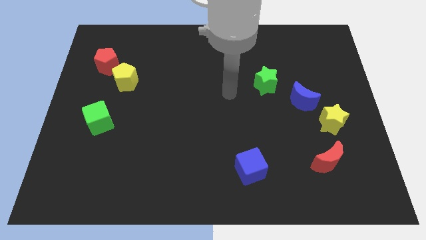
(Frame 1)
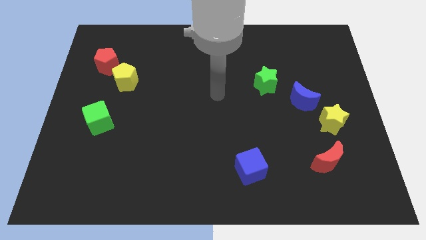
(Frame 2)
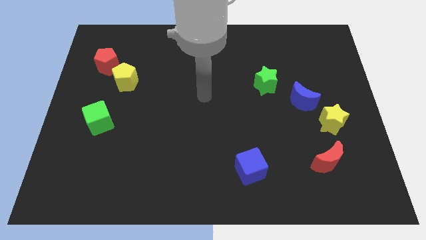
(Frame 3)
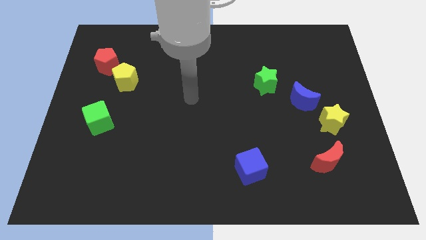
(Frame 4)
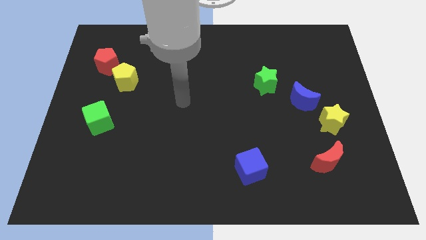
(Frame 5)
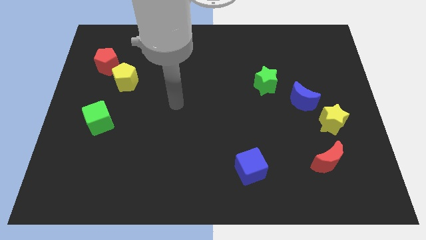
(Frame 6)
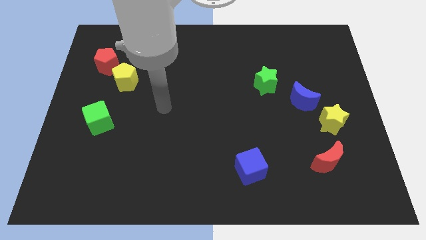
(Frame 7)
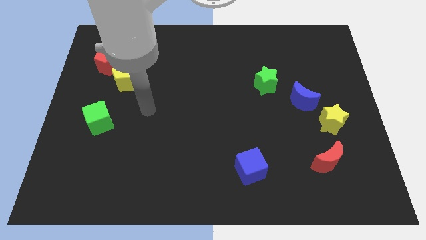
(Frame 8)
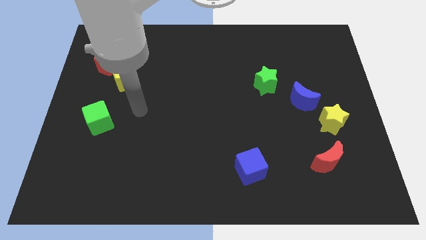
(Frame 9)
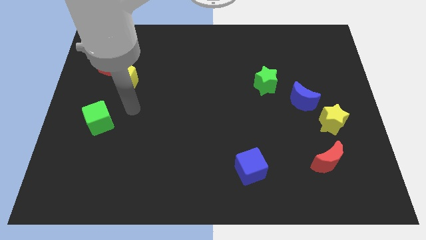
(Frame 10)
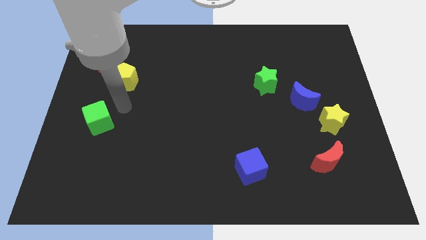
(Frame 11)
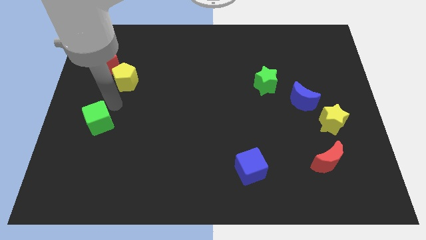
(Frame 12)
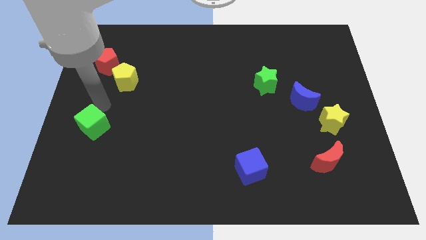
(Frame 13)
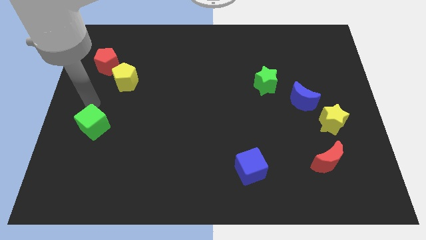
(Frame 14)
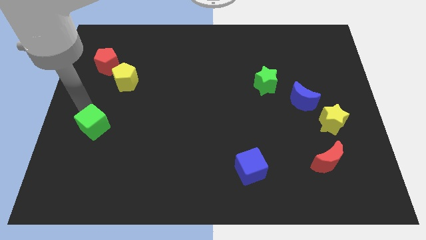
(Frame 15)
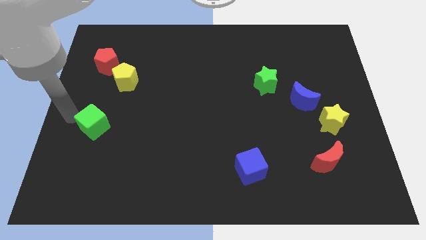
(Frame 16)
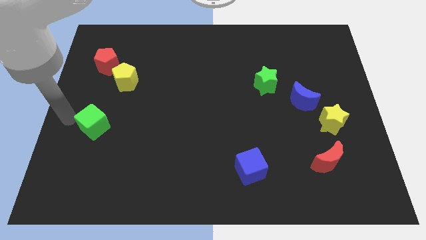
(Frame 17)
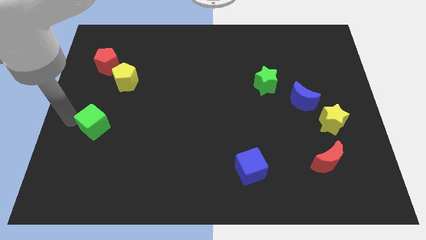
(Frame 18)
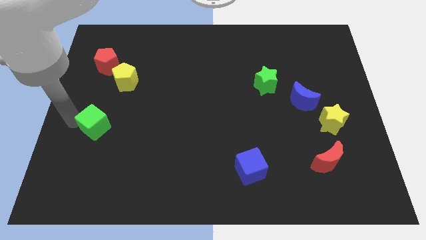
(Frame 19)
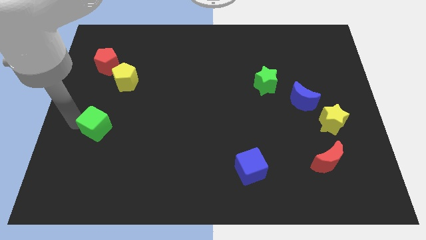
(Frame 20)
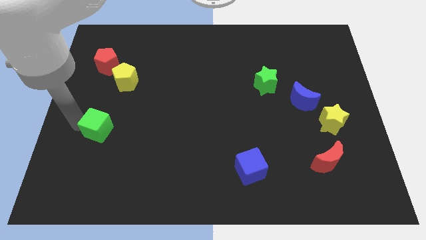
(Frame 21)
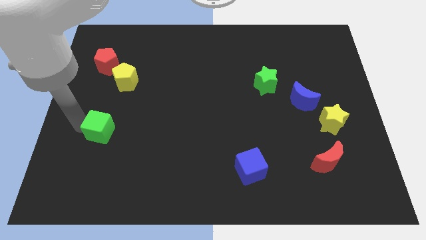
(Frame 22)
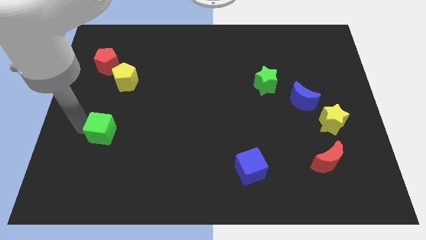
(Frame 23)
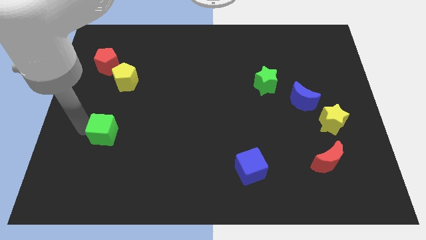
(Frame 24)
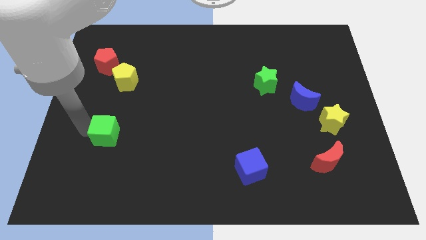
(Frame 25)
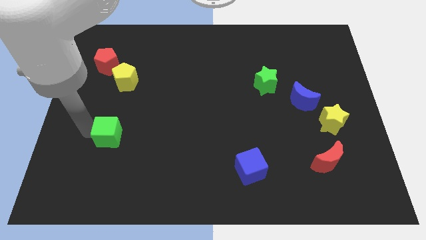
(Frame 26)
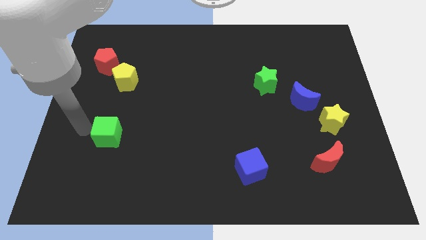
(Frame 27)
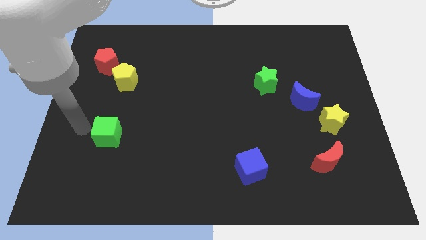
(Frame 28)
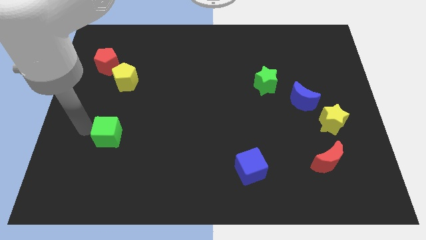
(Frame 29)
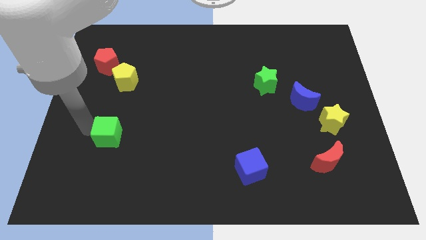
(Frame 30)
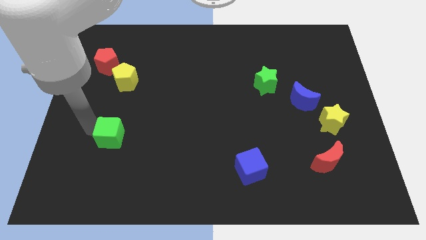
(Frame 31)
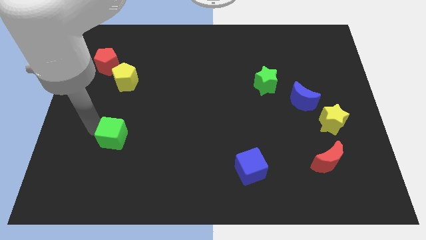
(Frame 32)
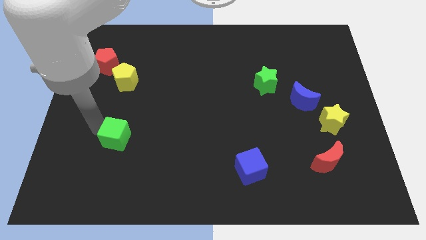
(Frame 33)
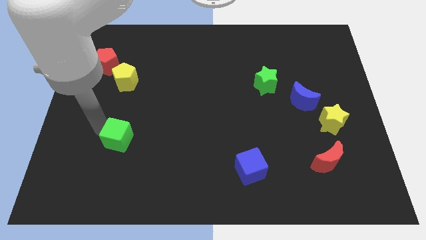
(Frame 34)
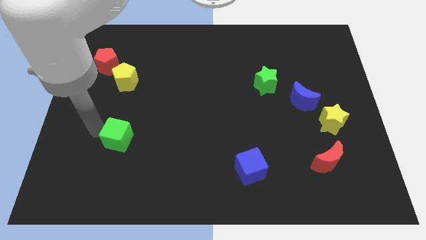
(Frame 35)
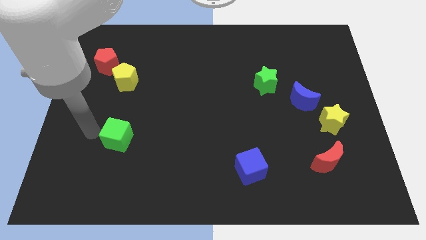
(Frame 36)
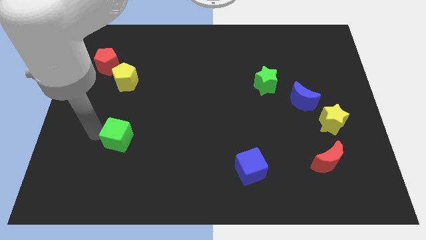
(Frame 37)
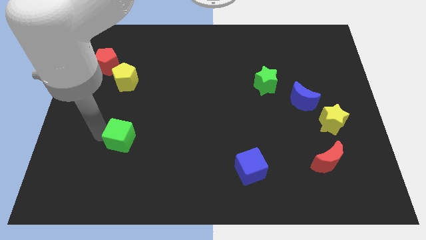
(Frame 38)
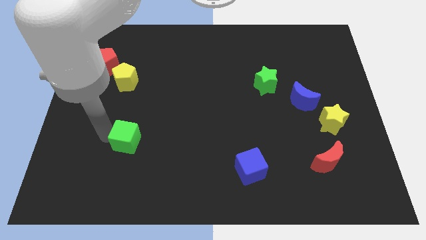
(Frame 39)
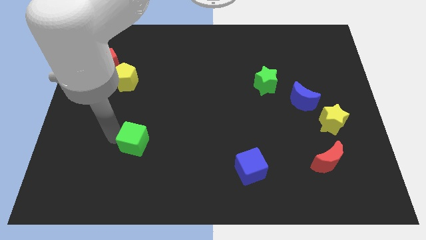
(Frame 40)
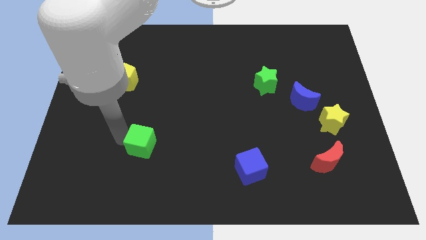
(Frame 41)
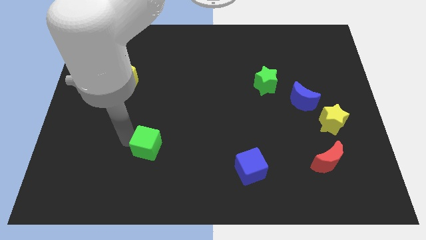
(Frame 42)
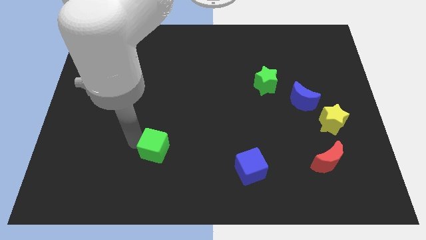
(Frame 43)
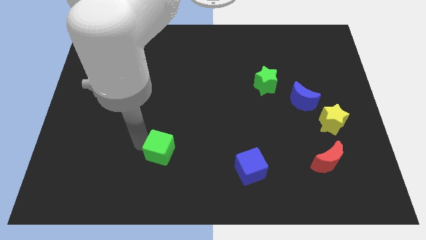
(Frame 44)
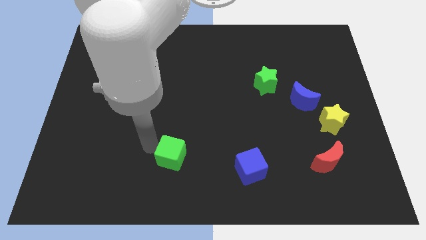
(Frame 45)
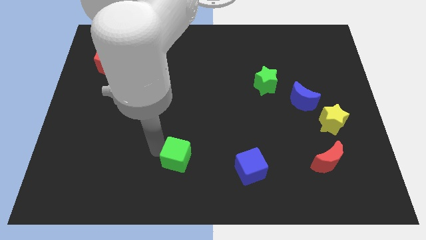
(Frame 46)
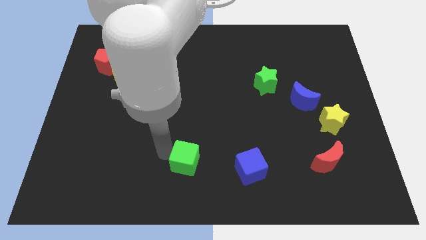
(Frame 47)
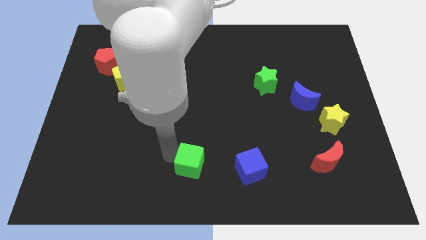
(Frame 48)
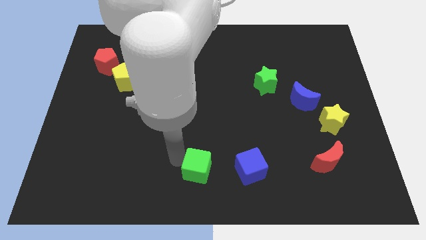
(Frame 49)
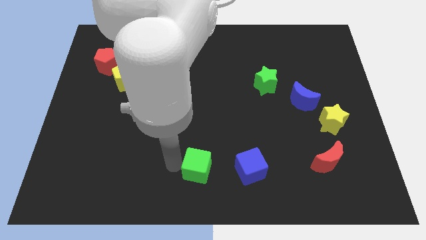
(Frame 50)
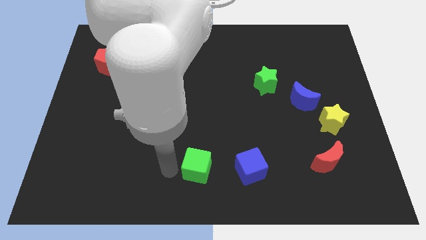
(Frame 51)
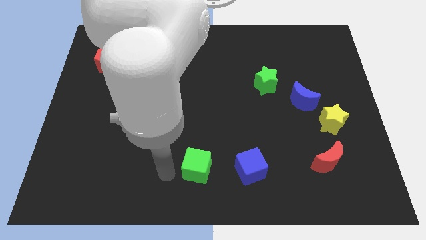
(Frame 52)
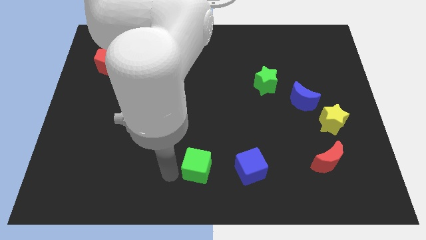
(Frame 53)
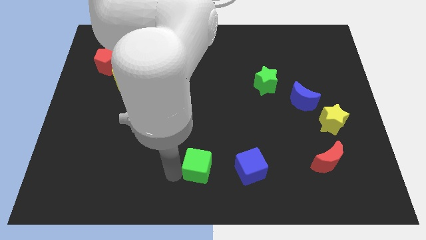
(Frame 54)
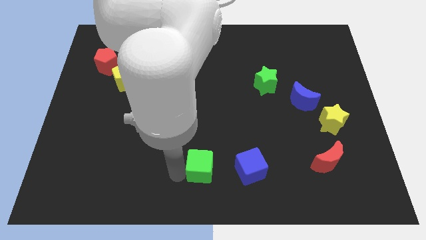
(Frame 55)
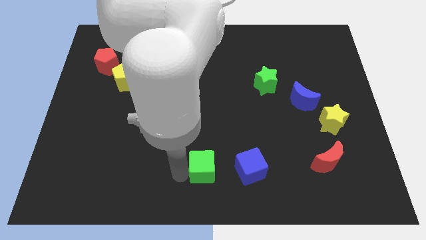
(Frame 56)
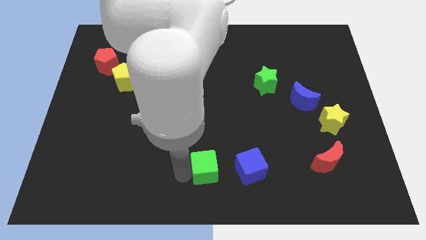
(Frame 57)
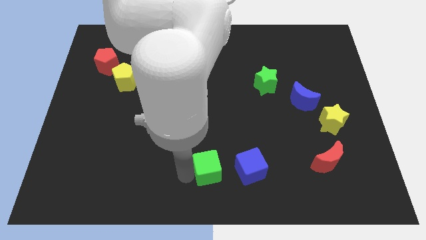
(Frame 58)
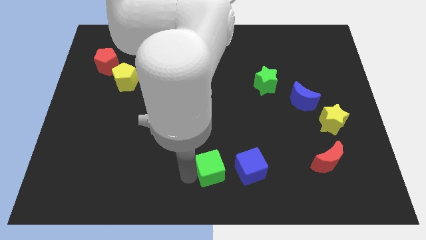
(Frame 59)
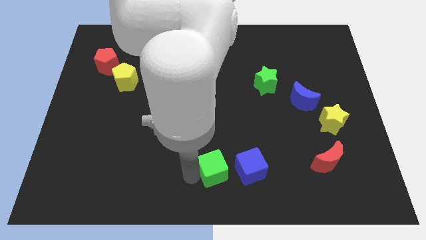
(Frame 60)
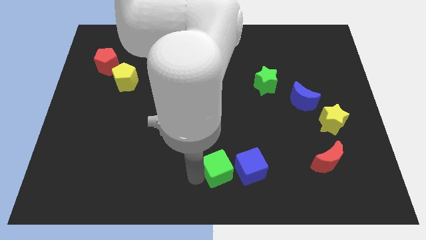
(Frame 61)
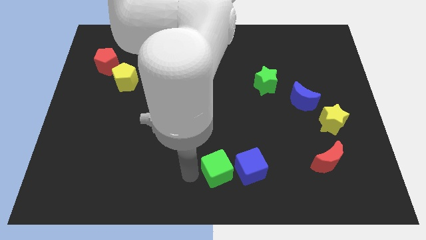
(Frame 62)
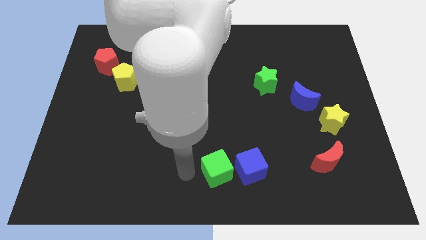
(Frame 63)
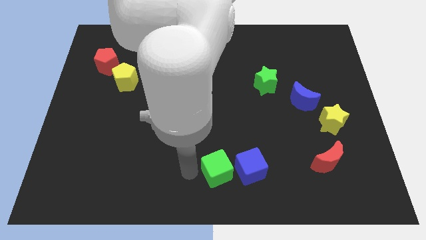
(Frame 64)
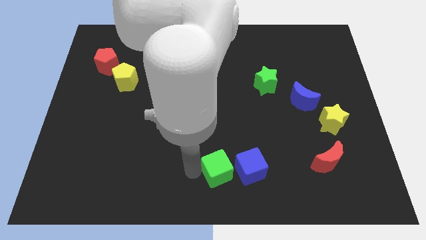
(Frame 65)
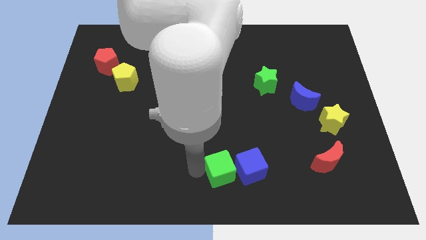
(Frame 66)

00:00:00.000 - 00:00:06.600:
put the green cube close to the blue cube

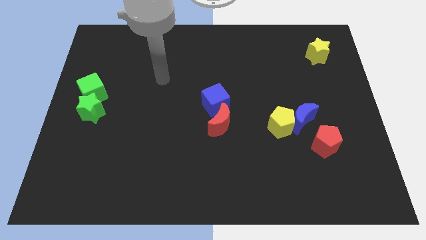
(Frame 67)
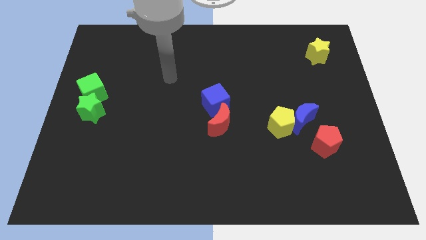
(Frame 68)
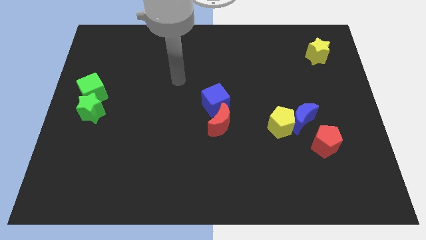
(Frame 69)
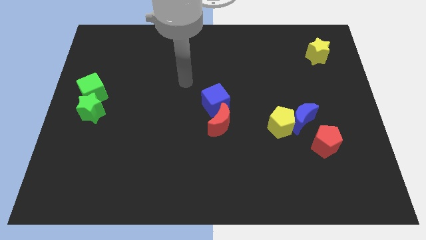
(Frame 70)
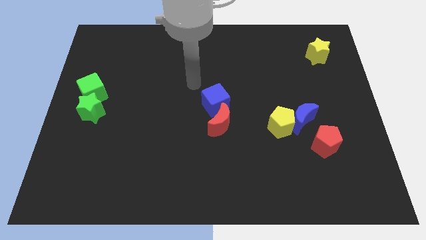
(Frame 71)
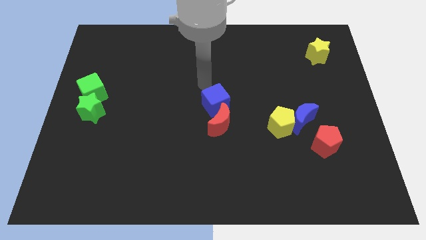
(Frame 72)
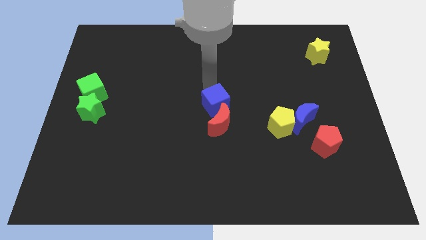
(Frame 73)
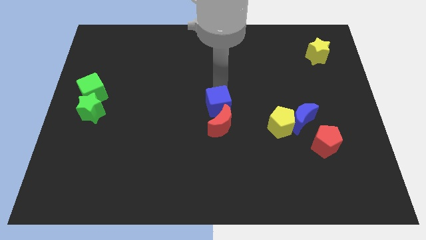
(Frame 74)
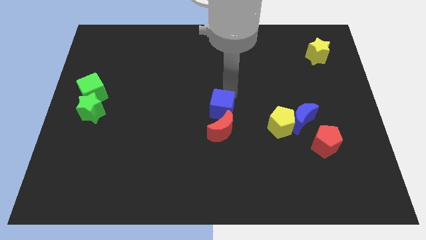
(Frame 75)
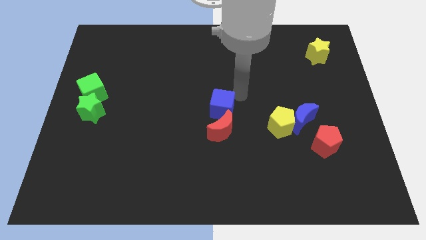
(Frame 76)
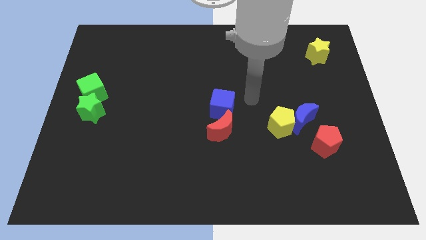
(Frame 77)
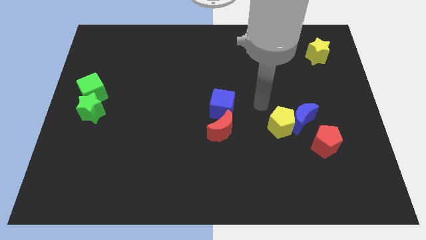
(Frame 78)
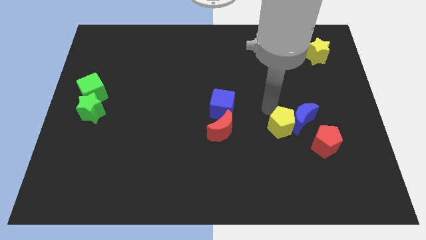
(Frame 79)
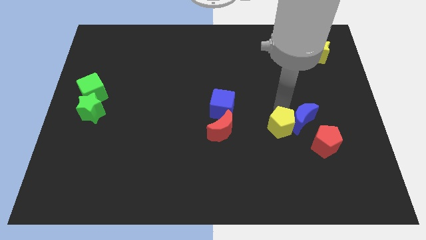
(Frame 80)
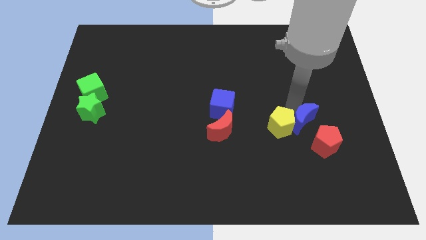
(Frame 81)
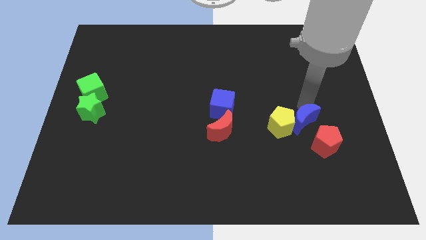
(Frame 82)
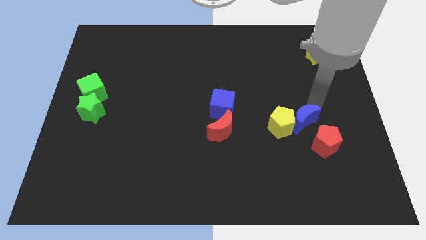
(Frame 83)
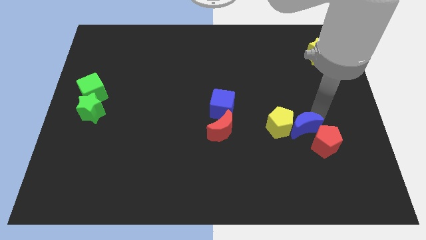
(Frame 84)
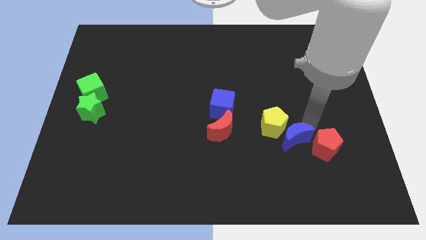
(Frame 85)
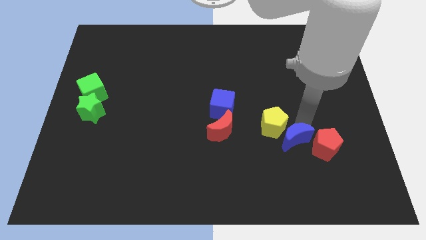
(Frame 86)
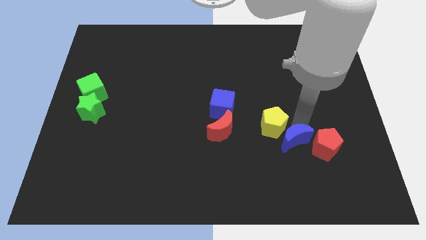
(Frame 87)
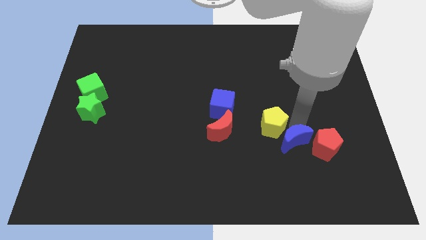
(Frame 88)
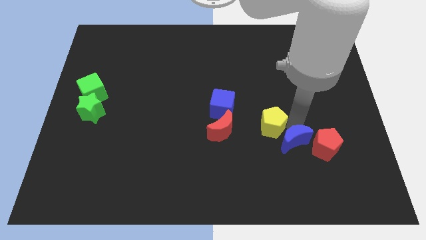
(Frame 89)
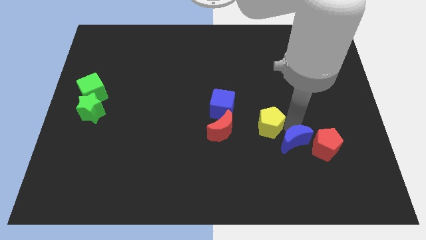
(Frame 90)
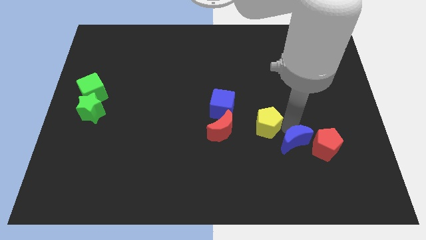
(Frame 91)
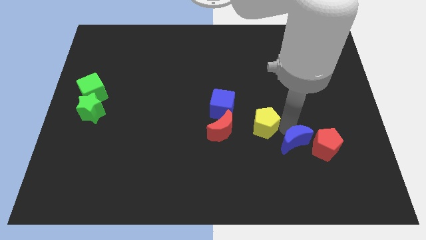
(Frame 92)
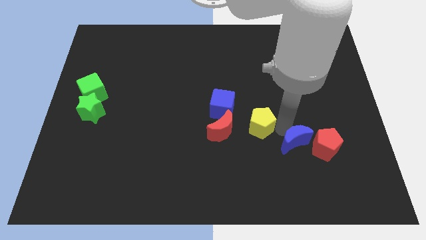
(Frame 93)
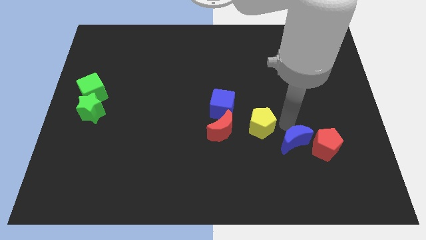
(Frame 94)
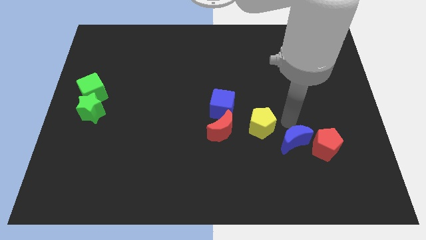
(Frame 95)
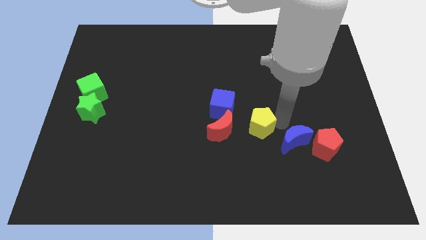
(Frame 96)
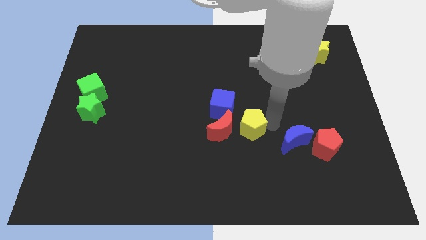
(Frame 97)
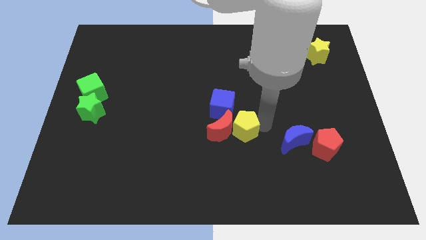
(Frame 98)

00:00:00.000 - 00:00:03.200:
push the yellow pentagon close to the red moon
